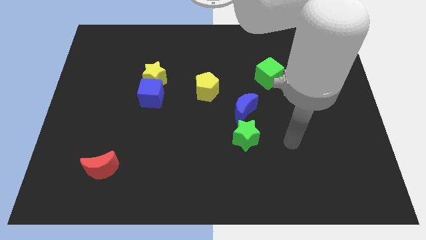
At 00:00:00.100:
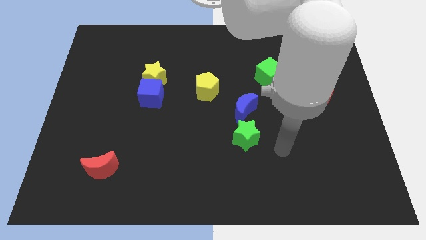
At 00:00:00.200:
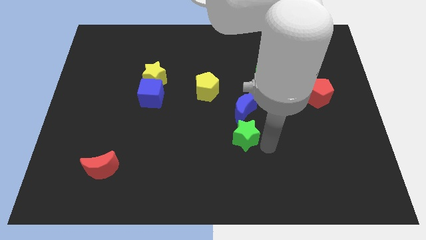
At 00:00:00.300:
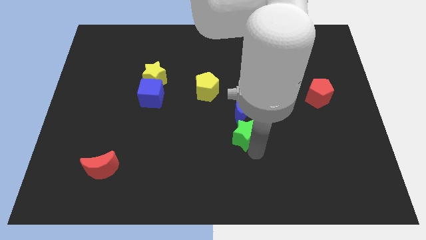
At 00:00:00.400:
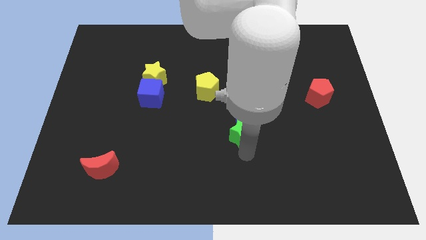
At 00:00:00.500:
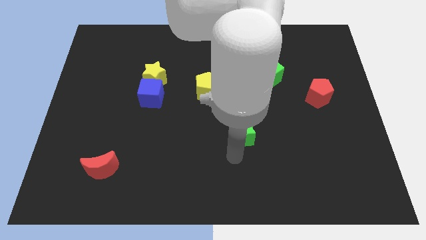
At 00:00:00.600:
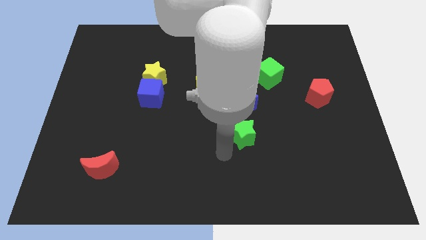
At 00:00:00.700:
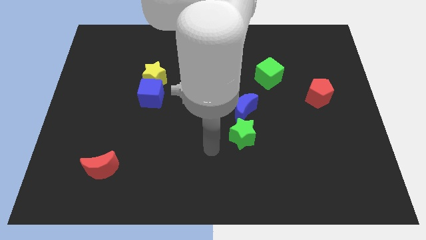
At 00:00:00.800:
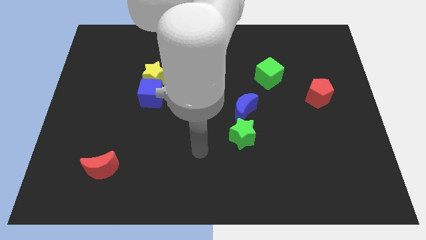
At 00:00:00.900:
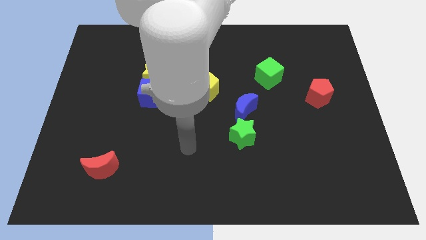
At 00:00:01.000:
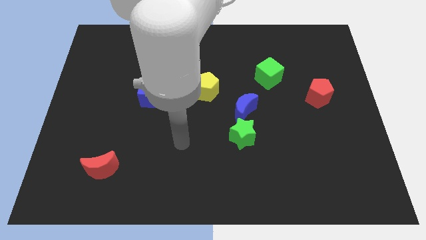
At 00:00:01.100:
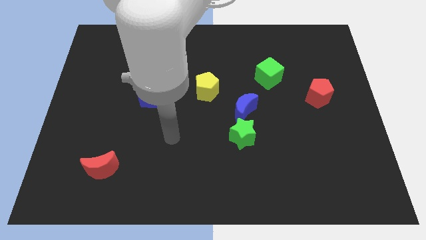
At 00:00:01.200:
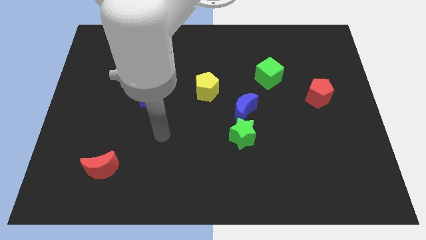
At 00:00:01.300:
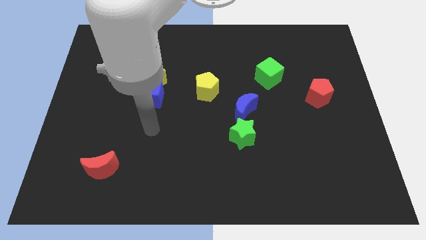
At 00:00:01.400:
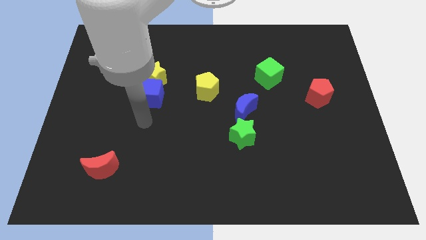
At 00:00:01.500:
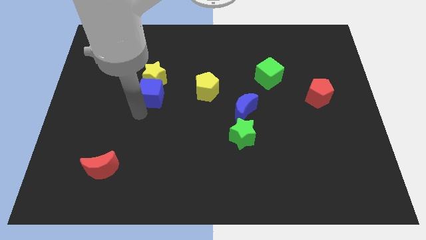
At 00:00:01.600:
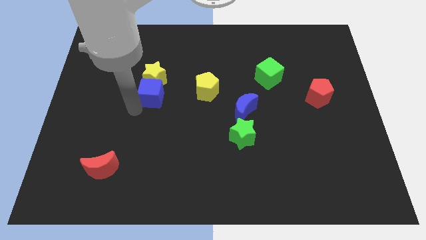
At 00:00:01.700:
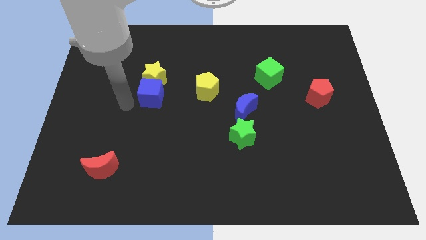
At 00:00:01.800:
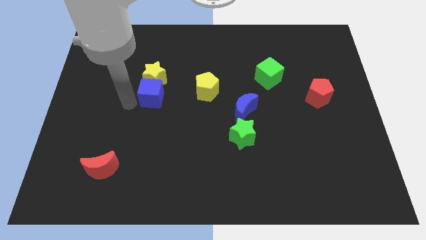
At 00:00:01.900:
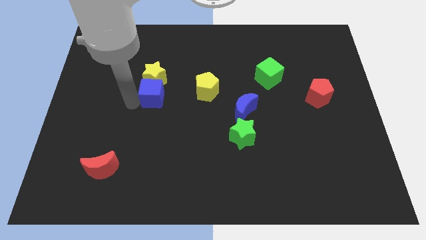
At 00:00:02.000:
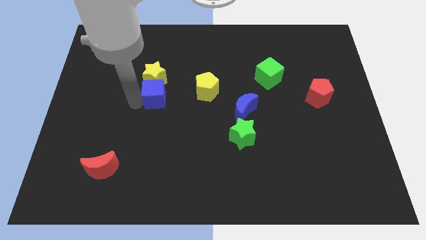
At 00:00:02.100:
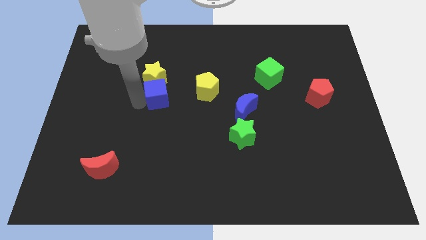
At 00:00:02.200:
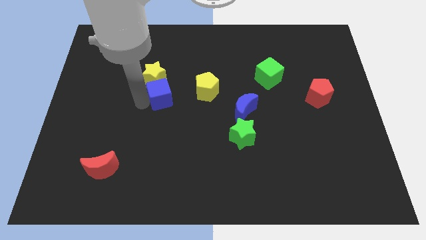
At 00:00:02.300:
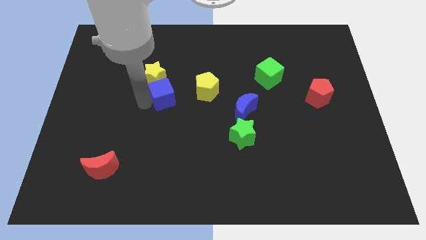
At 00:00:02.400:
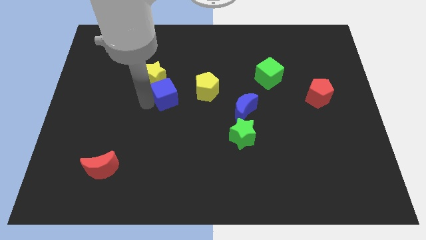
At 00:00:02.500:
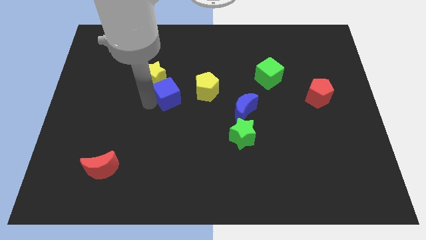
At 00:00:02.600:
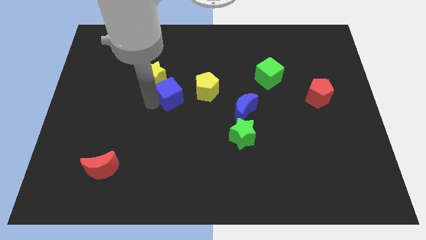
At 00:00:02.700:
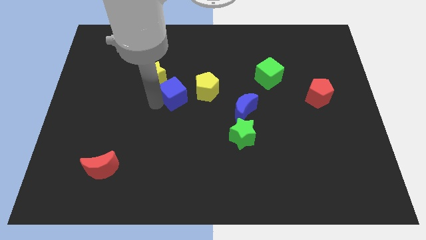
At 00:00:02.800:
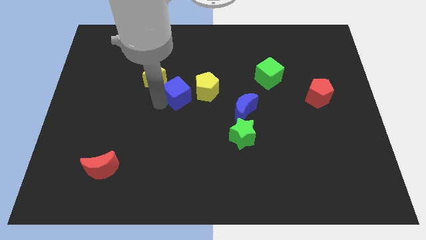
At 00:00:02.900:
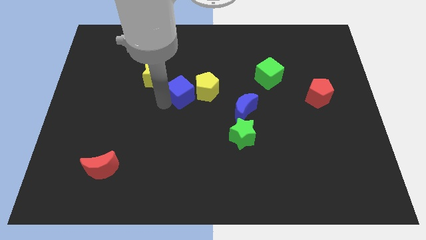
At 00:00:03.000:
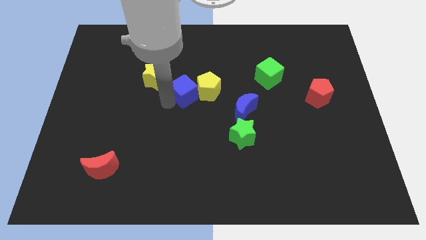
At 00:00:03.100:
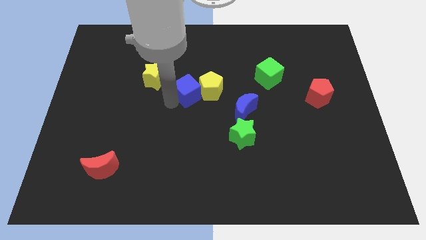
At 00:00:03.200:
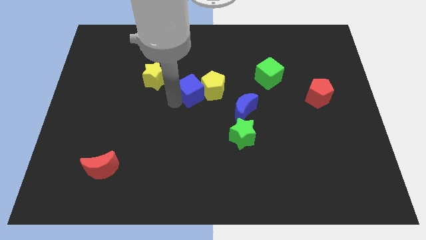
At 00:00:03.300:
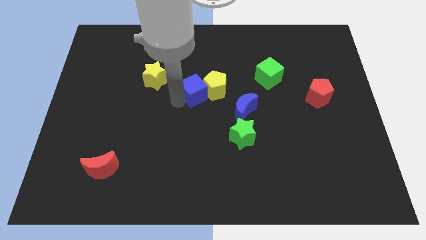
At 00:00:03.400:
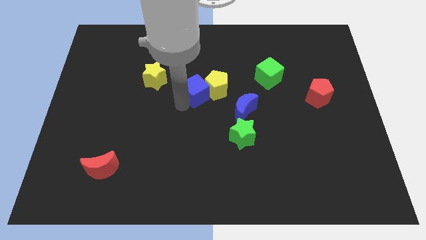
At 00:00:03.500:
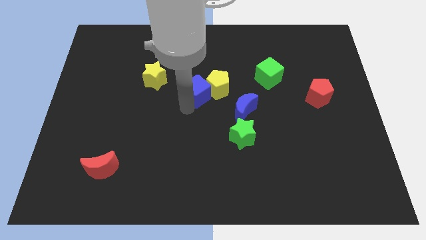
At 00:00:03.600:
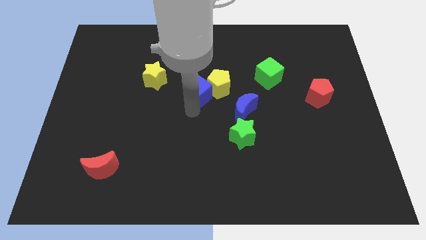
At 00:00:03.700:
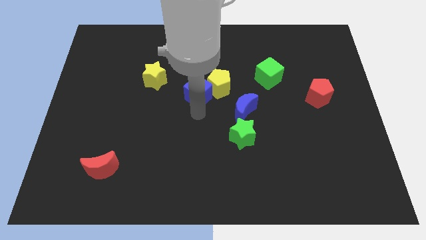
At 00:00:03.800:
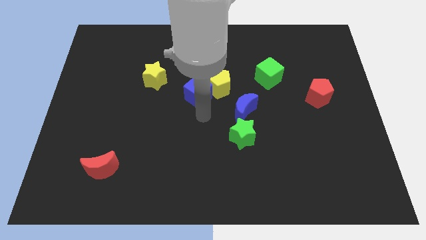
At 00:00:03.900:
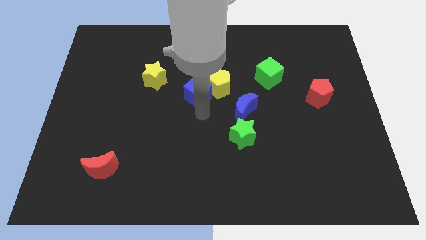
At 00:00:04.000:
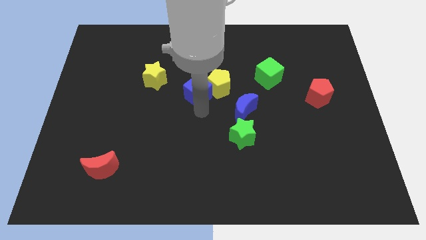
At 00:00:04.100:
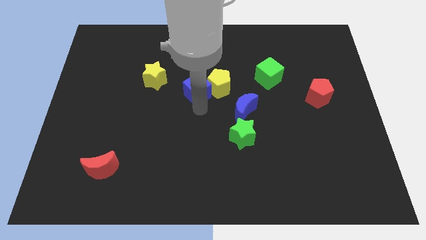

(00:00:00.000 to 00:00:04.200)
slide the blue cube upwards and then right a bit

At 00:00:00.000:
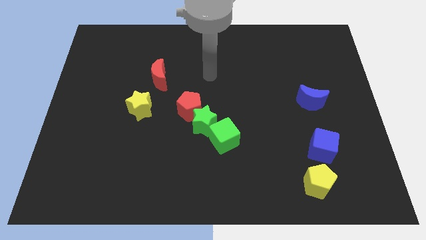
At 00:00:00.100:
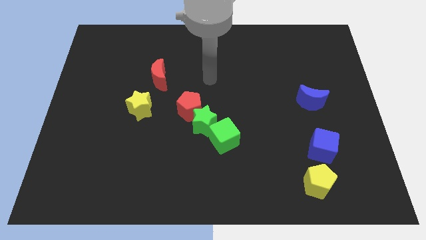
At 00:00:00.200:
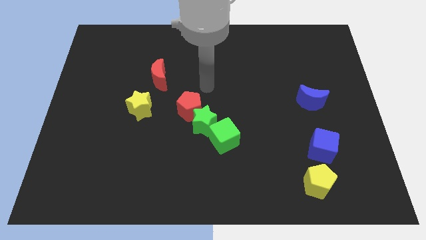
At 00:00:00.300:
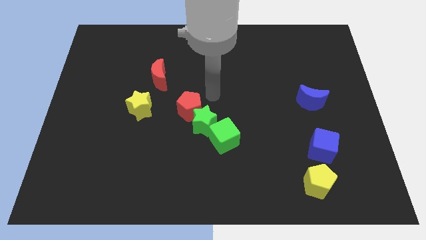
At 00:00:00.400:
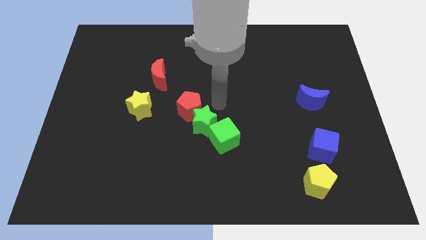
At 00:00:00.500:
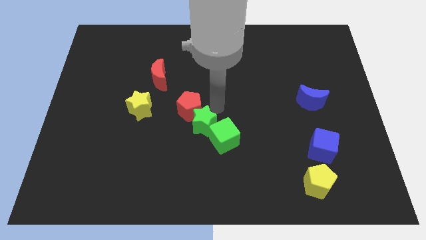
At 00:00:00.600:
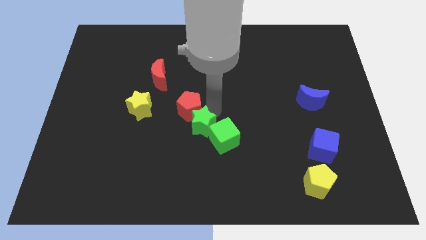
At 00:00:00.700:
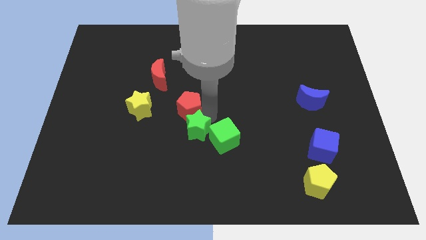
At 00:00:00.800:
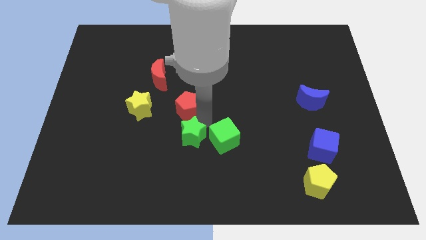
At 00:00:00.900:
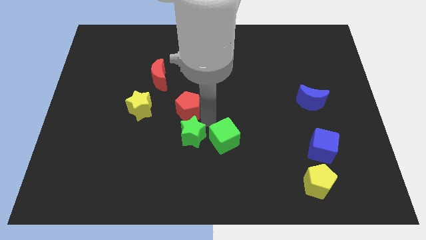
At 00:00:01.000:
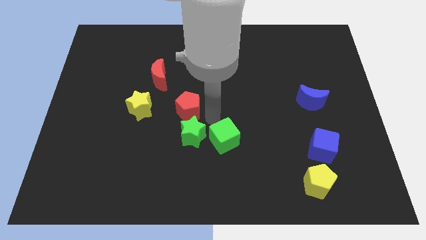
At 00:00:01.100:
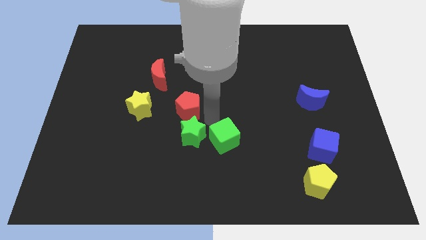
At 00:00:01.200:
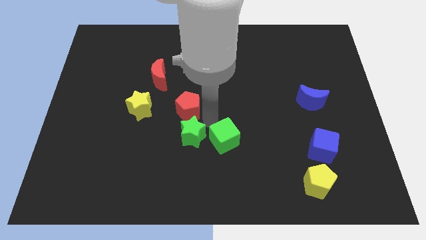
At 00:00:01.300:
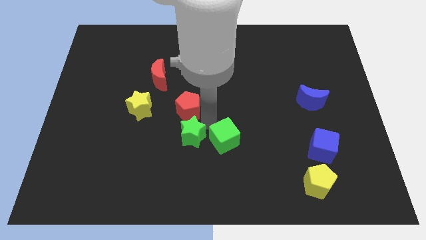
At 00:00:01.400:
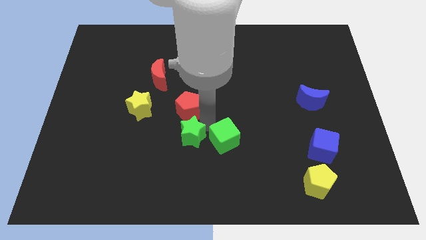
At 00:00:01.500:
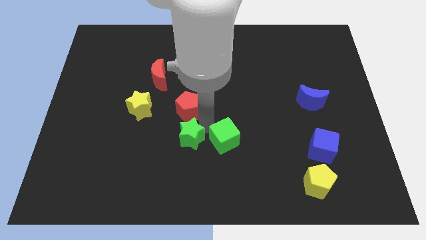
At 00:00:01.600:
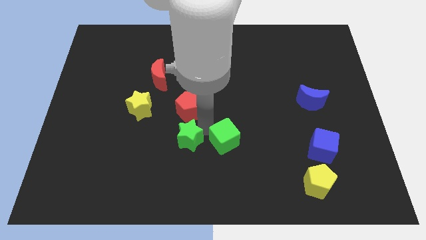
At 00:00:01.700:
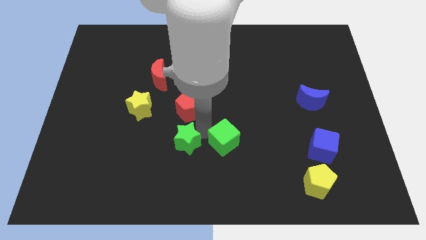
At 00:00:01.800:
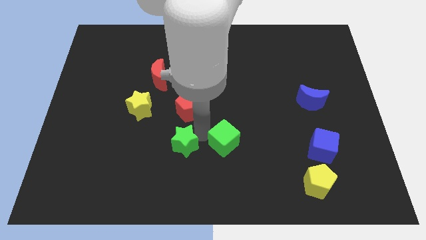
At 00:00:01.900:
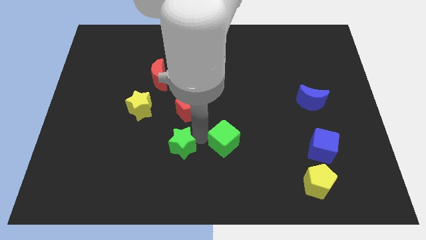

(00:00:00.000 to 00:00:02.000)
slide the green star a little bit down and left

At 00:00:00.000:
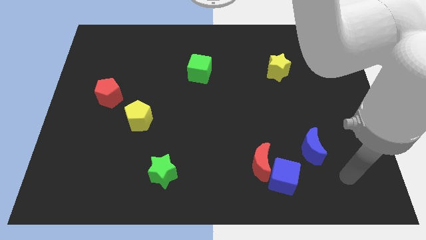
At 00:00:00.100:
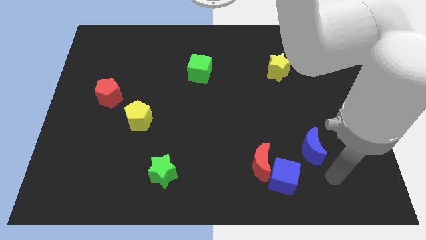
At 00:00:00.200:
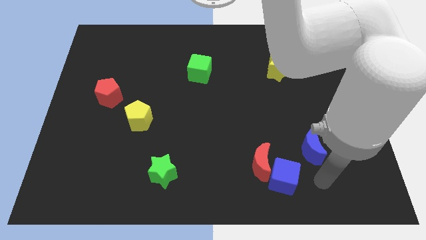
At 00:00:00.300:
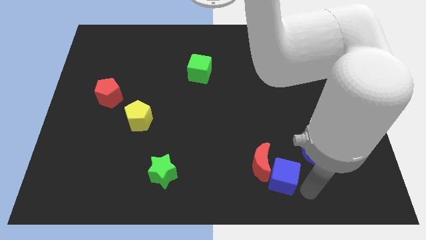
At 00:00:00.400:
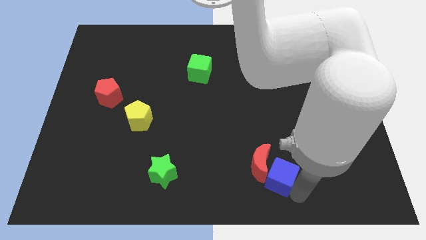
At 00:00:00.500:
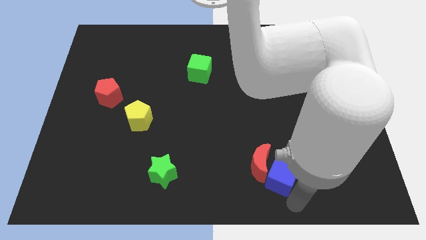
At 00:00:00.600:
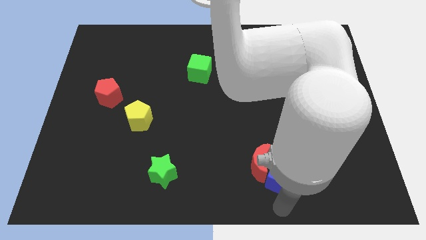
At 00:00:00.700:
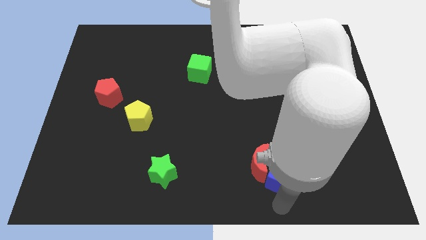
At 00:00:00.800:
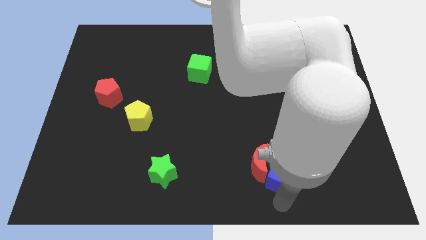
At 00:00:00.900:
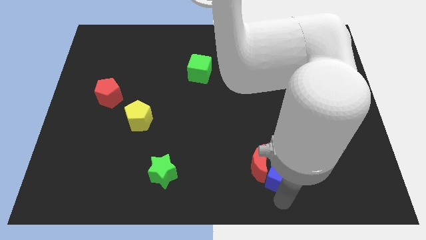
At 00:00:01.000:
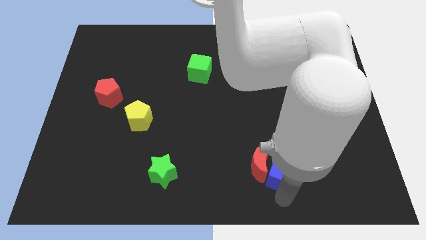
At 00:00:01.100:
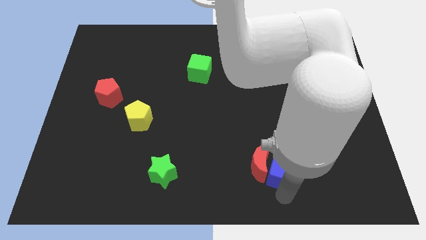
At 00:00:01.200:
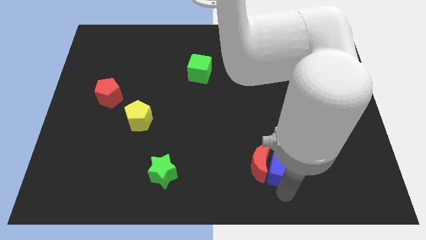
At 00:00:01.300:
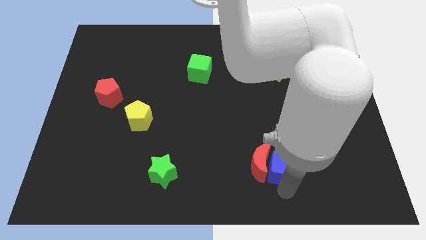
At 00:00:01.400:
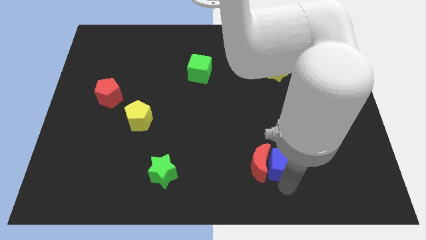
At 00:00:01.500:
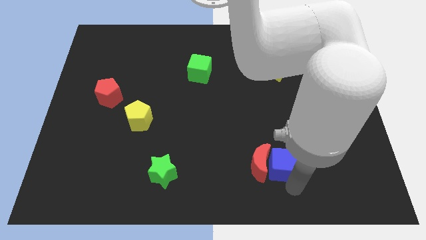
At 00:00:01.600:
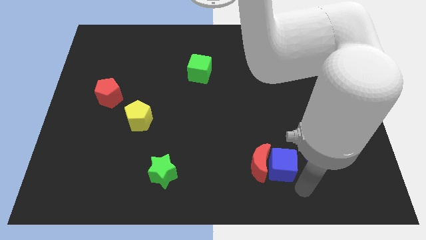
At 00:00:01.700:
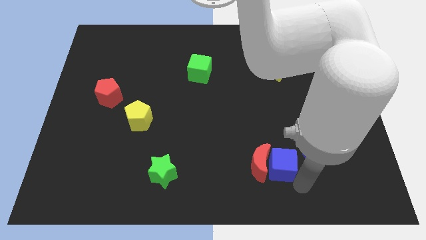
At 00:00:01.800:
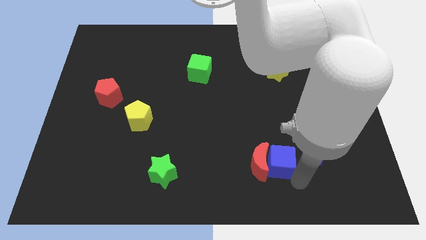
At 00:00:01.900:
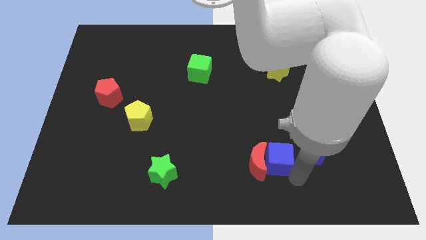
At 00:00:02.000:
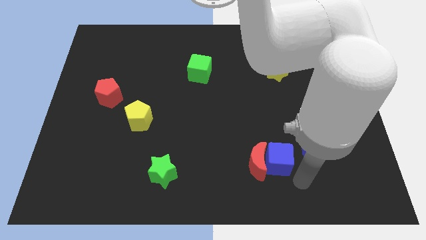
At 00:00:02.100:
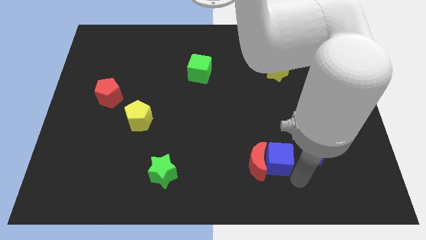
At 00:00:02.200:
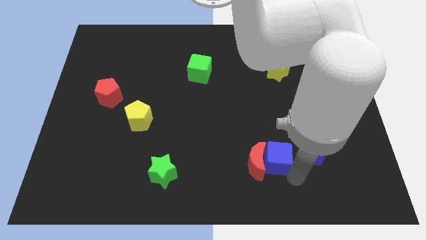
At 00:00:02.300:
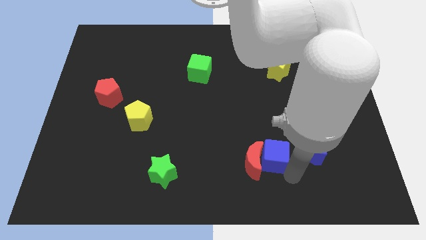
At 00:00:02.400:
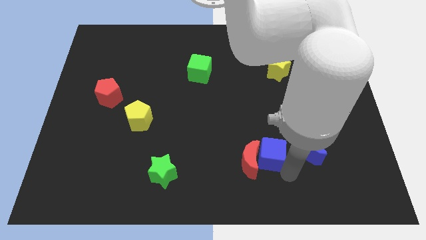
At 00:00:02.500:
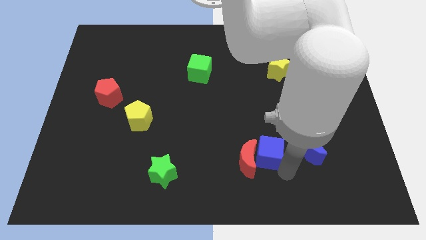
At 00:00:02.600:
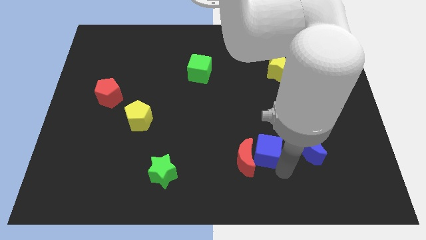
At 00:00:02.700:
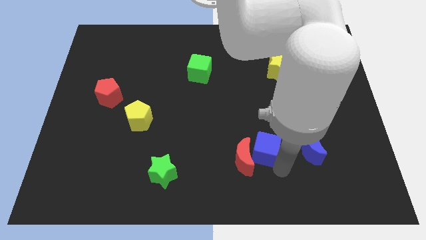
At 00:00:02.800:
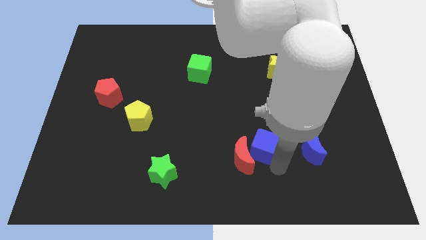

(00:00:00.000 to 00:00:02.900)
push the blue cube slightly upwards and left diagonally
